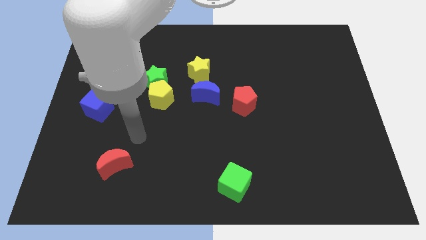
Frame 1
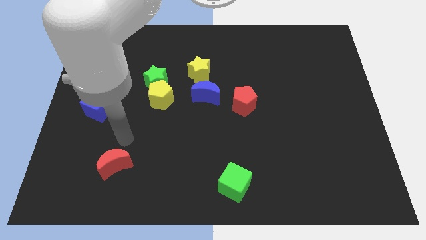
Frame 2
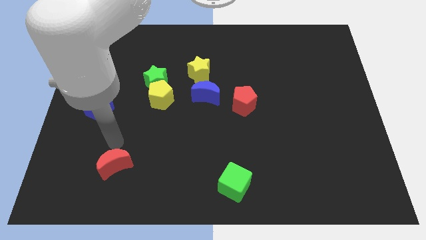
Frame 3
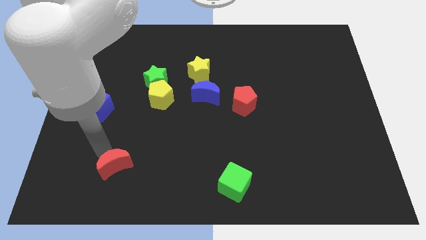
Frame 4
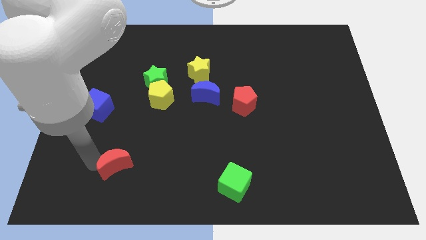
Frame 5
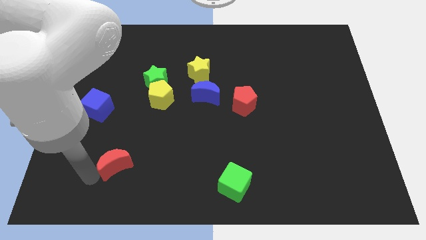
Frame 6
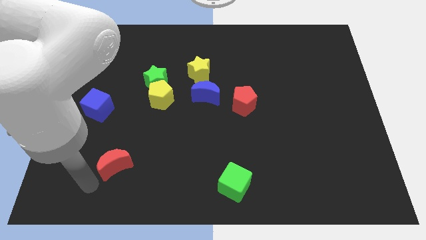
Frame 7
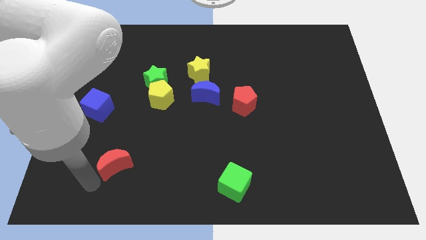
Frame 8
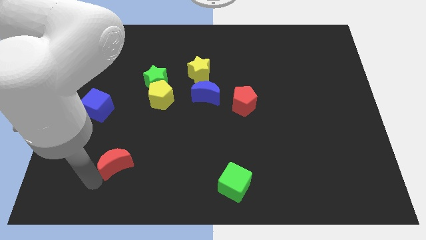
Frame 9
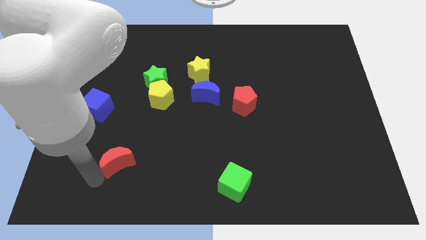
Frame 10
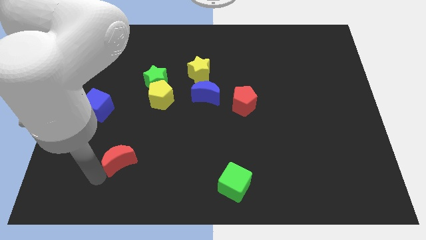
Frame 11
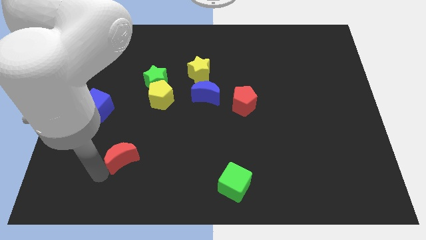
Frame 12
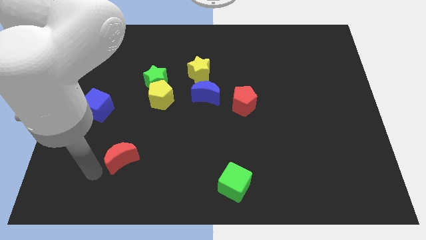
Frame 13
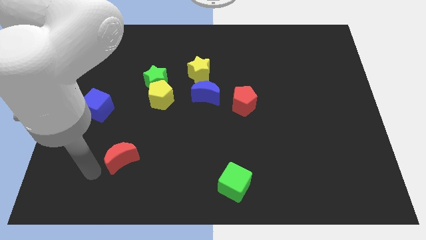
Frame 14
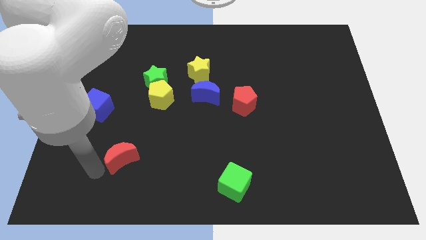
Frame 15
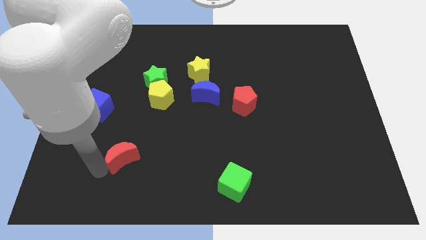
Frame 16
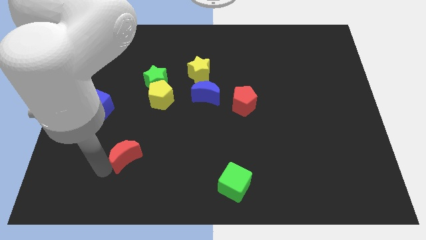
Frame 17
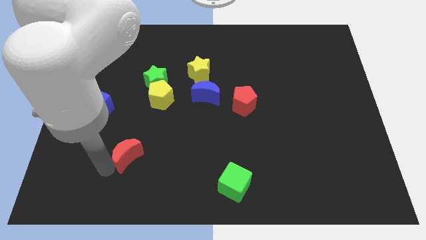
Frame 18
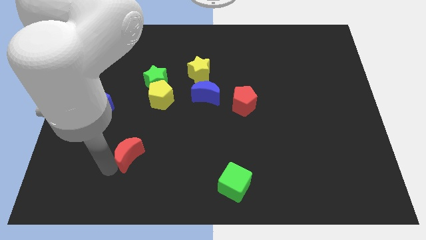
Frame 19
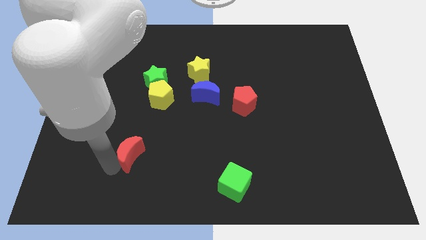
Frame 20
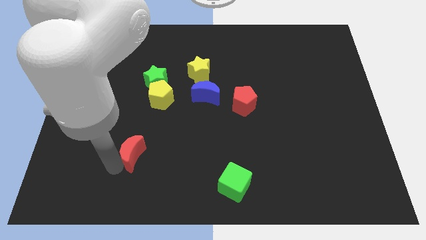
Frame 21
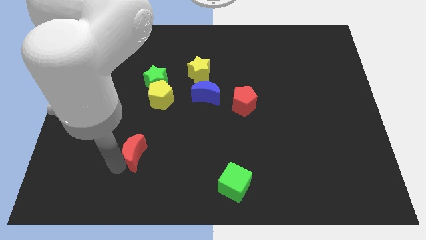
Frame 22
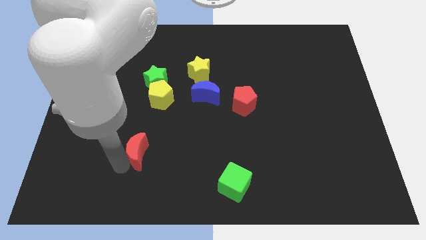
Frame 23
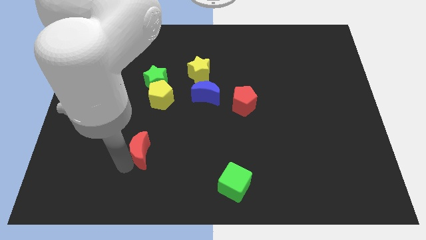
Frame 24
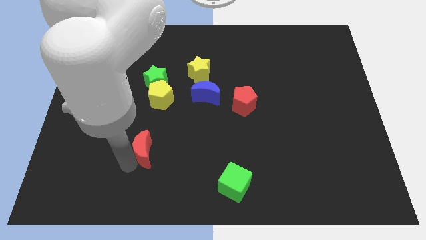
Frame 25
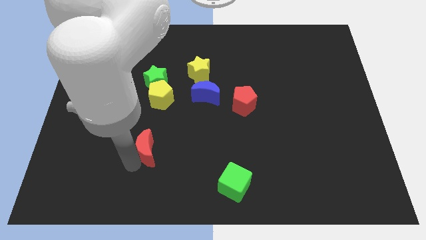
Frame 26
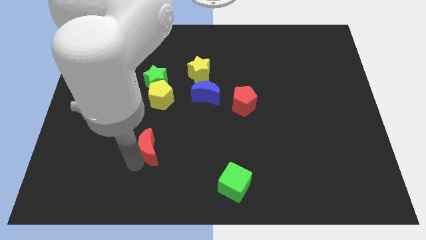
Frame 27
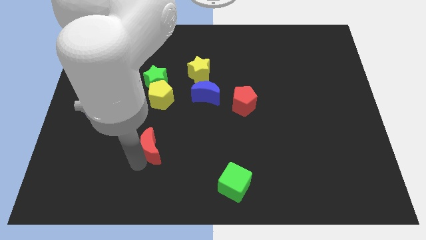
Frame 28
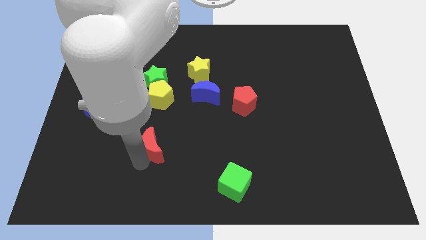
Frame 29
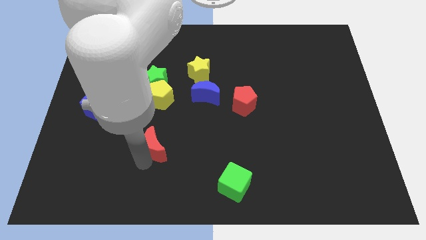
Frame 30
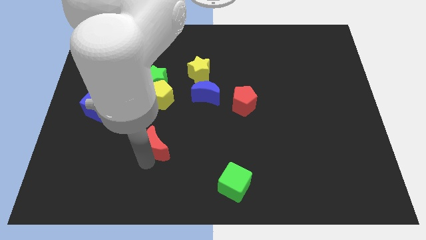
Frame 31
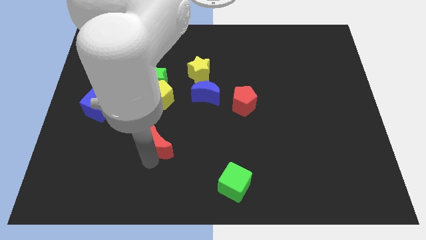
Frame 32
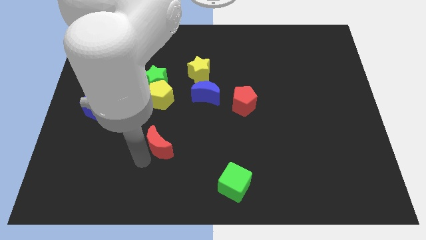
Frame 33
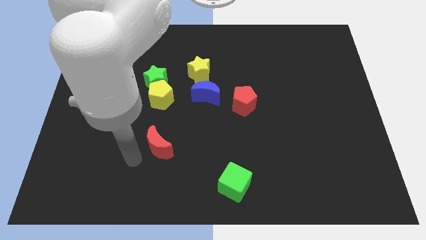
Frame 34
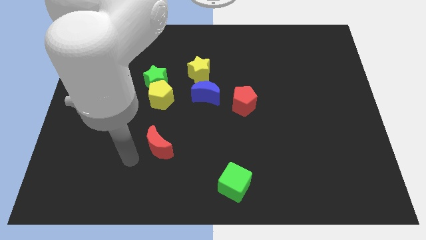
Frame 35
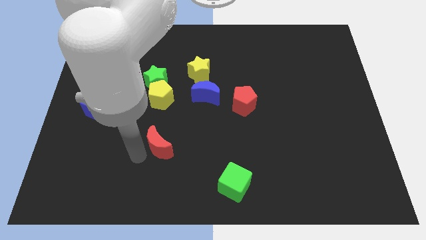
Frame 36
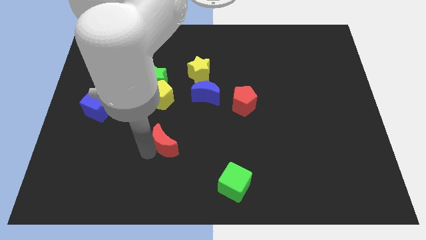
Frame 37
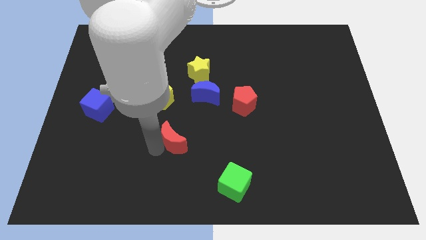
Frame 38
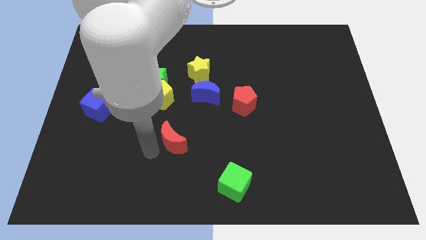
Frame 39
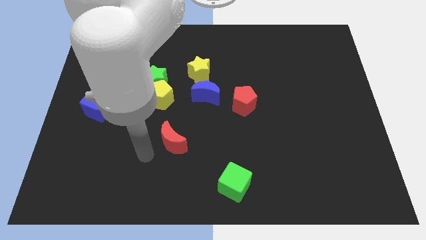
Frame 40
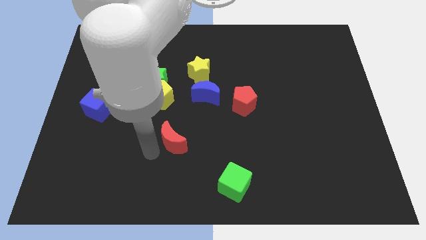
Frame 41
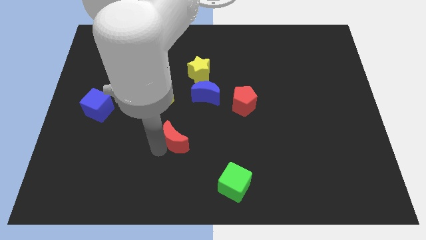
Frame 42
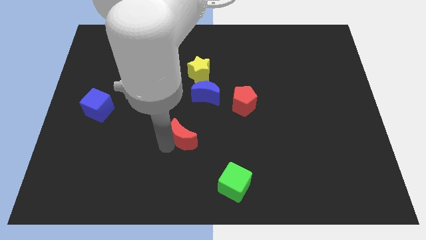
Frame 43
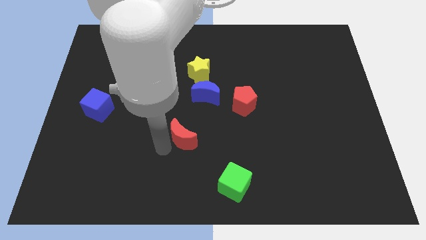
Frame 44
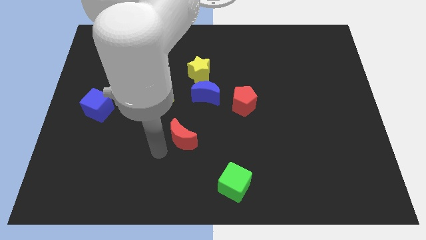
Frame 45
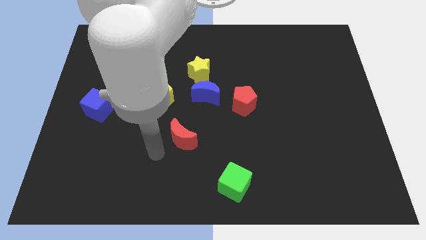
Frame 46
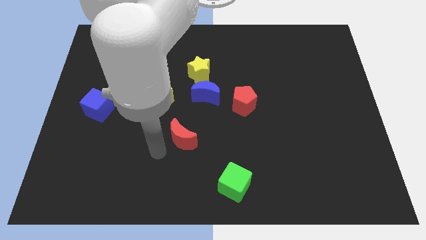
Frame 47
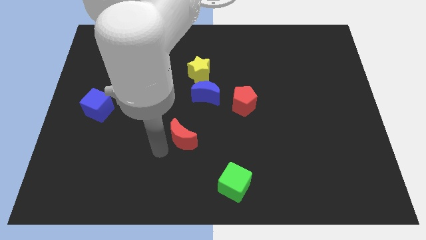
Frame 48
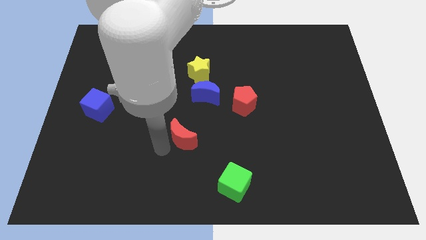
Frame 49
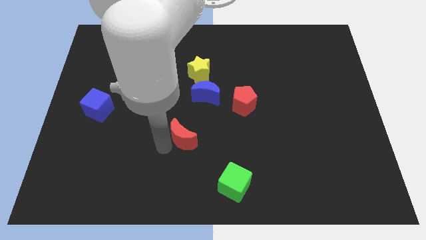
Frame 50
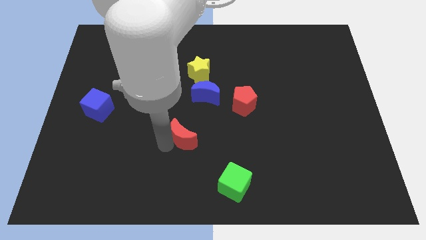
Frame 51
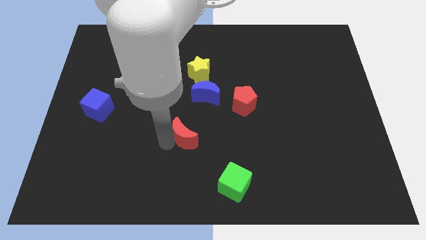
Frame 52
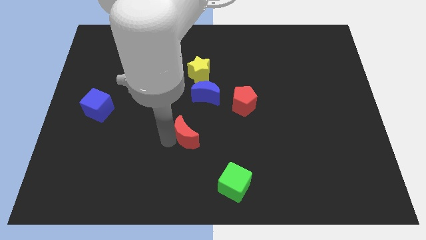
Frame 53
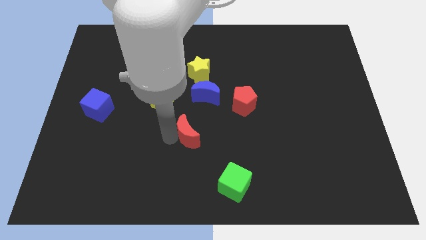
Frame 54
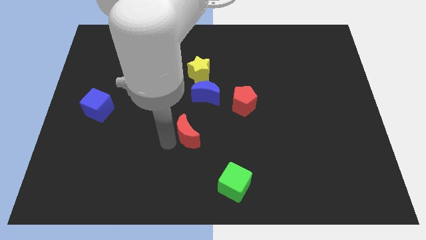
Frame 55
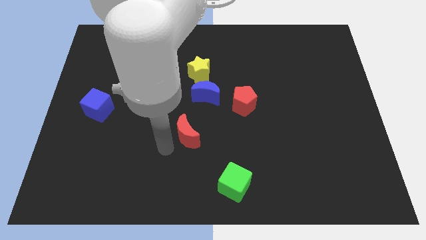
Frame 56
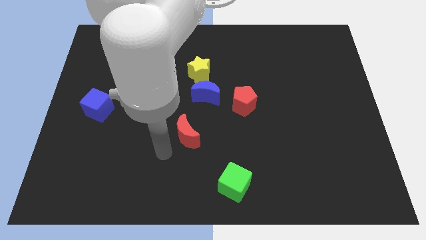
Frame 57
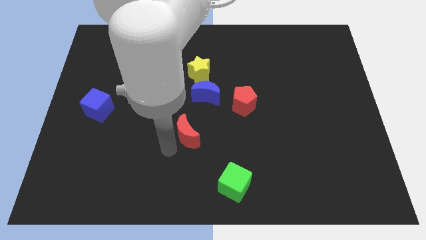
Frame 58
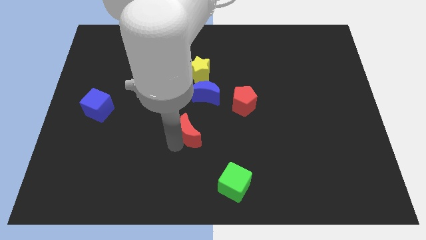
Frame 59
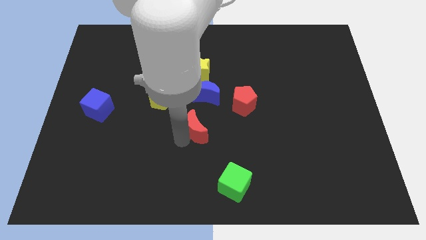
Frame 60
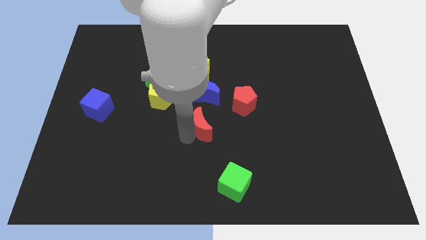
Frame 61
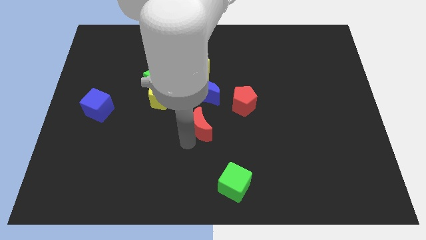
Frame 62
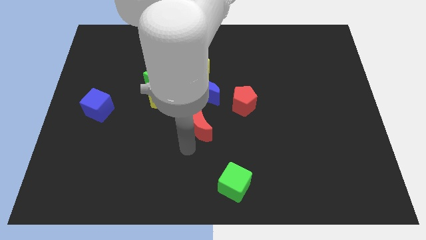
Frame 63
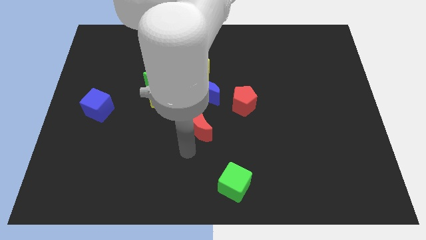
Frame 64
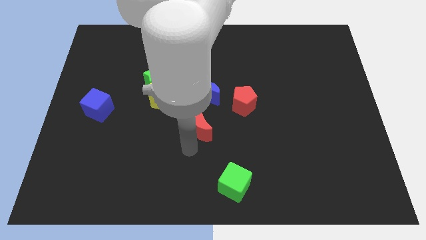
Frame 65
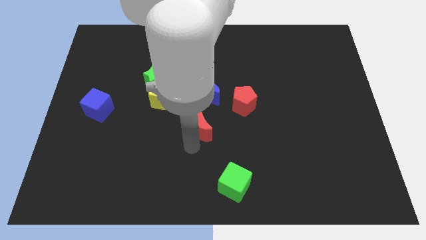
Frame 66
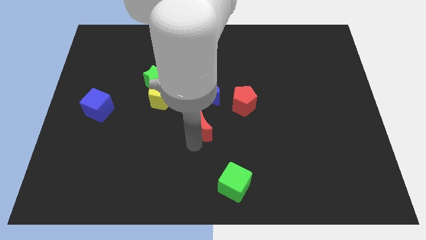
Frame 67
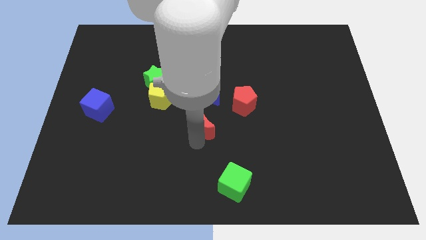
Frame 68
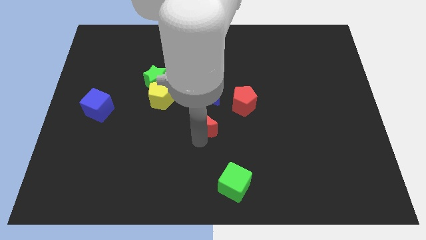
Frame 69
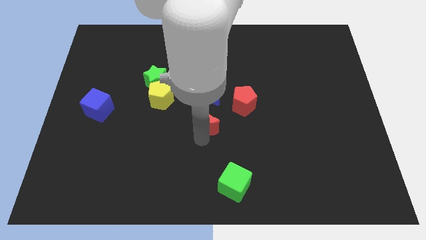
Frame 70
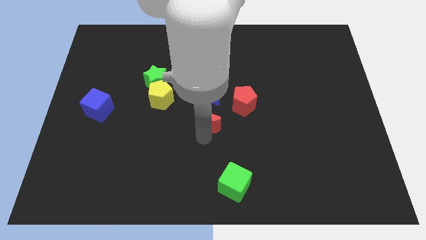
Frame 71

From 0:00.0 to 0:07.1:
move the red moon up and right

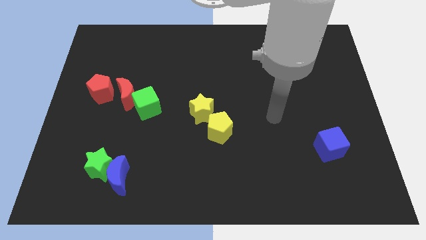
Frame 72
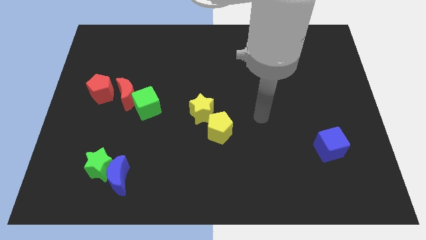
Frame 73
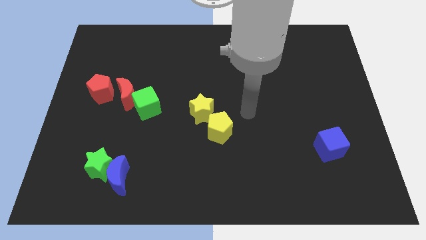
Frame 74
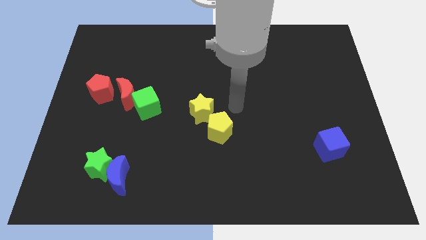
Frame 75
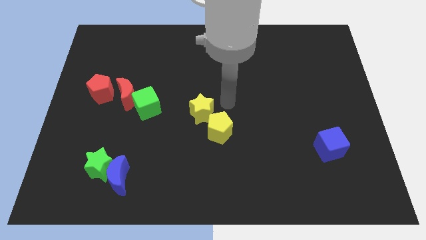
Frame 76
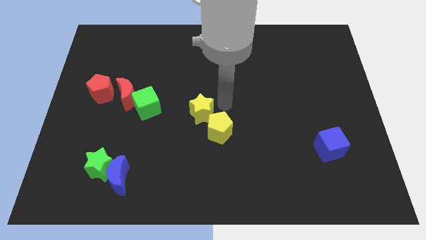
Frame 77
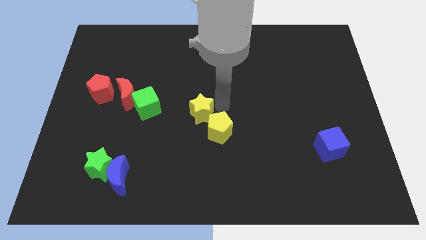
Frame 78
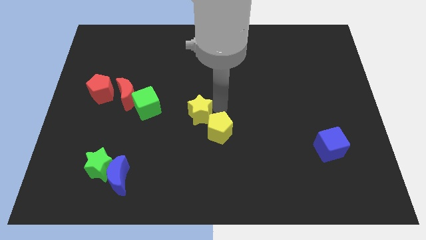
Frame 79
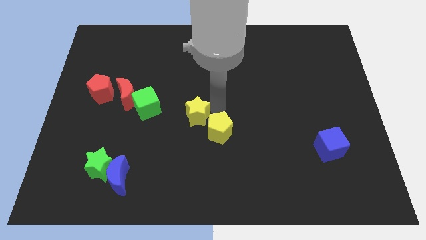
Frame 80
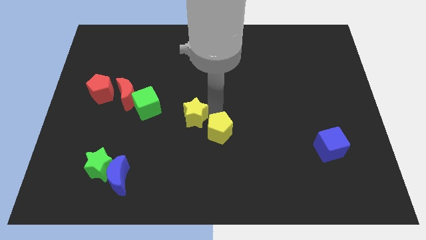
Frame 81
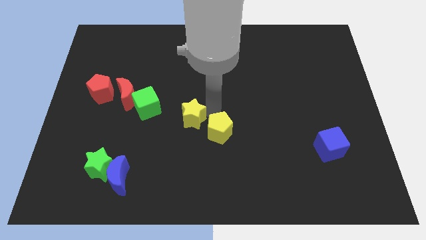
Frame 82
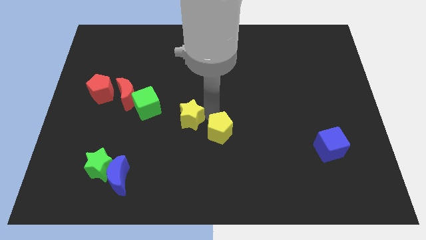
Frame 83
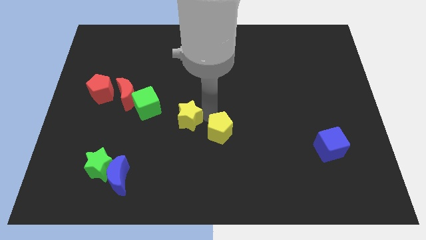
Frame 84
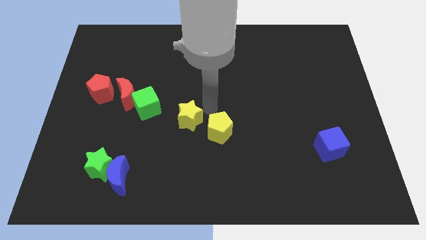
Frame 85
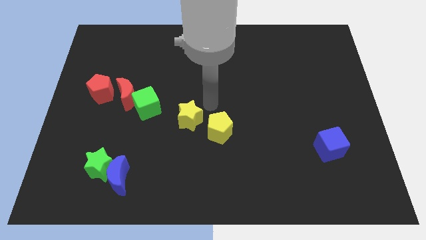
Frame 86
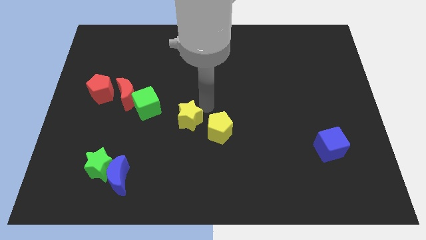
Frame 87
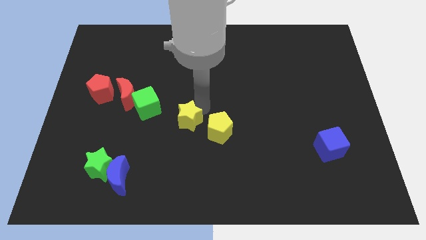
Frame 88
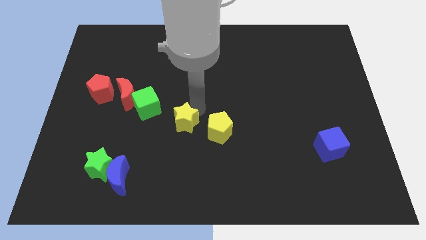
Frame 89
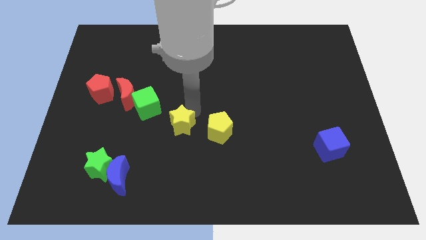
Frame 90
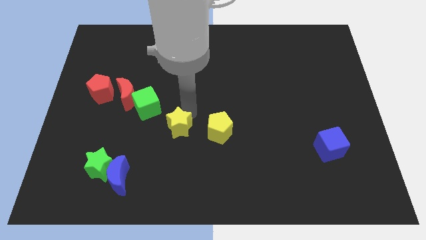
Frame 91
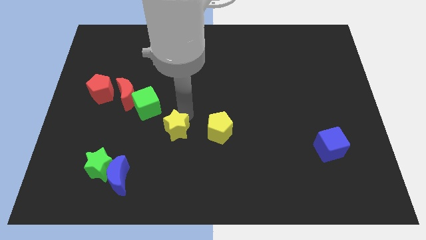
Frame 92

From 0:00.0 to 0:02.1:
slide the yellow star a little diagonally down and to the left
